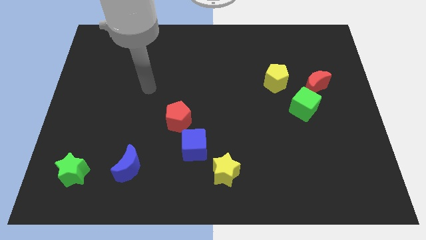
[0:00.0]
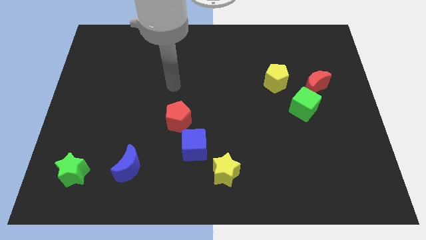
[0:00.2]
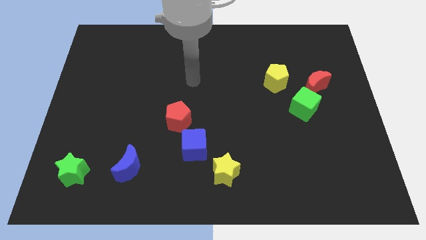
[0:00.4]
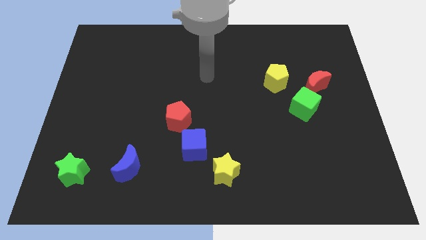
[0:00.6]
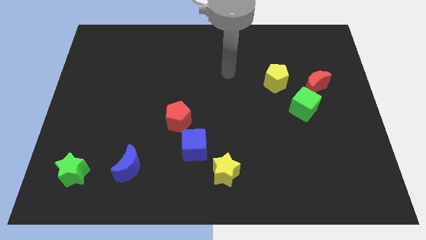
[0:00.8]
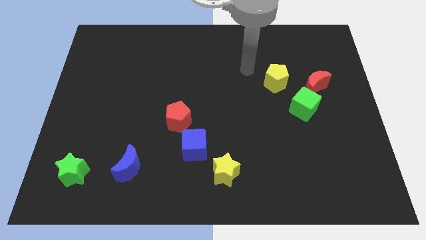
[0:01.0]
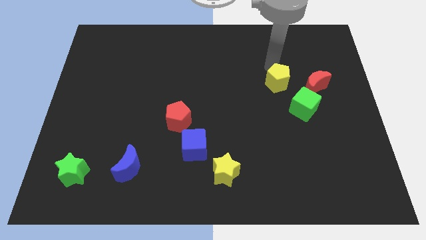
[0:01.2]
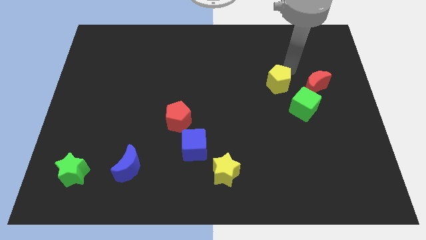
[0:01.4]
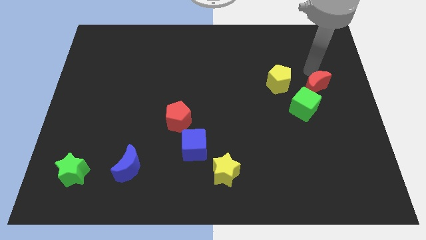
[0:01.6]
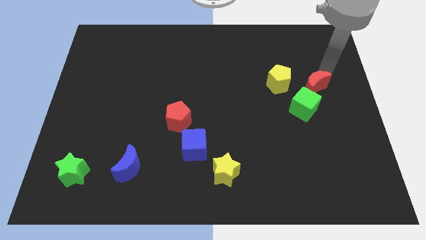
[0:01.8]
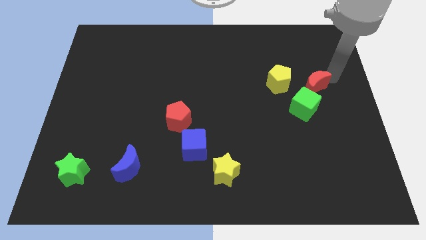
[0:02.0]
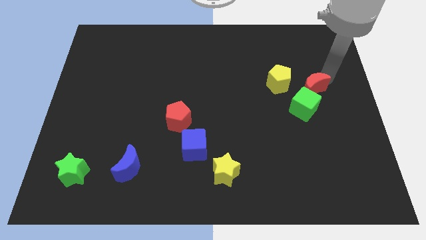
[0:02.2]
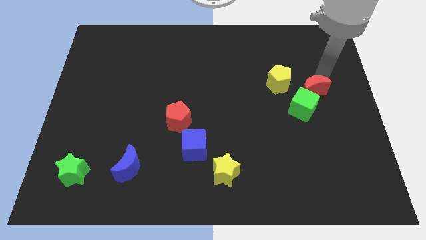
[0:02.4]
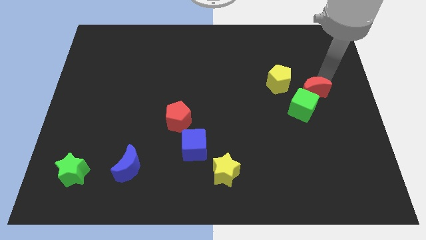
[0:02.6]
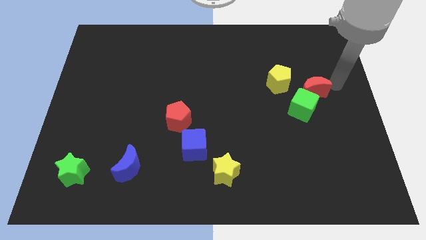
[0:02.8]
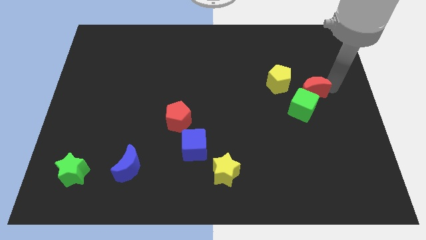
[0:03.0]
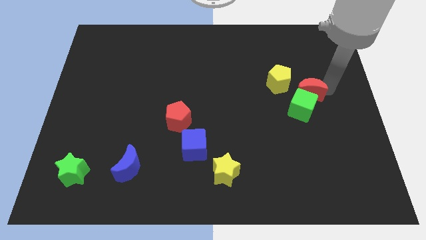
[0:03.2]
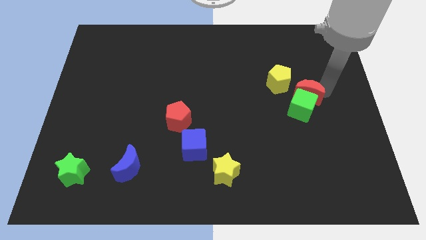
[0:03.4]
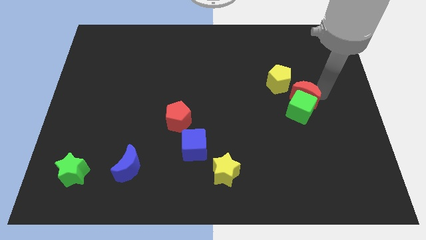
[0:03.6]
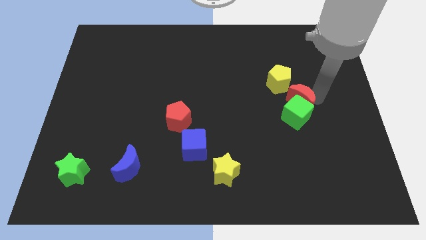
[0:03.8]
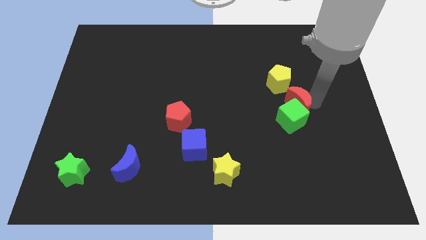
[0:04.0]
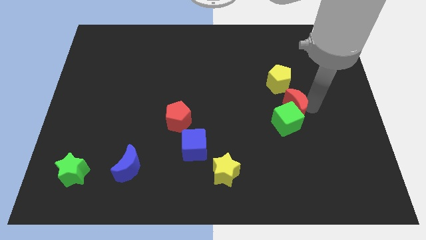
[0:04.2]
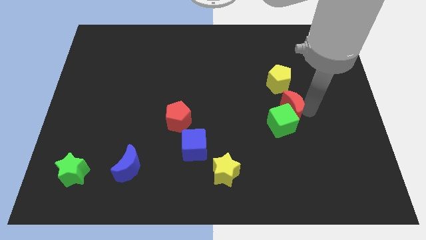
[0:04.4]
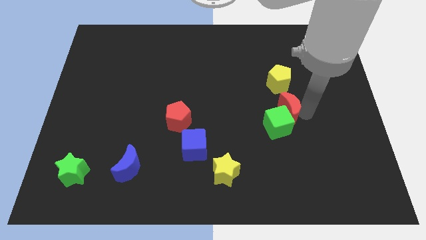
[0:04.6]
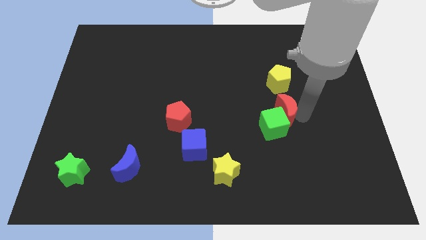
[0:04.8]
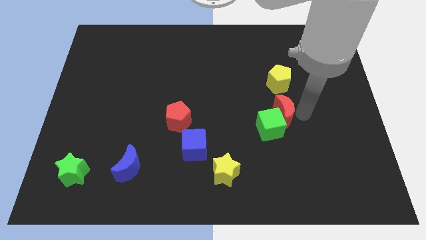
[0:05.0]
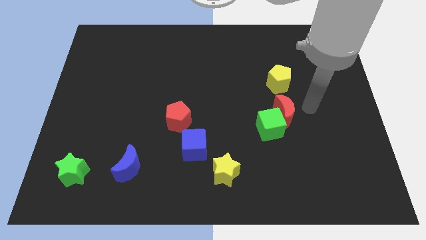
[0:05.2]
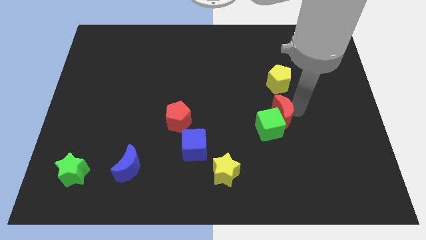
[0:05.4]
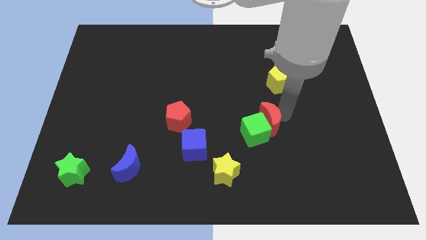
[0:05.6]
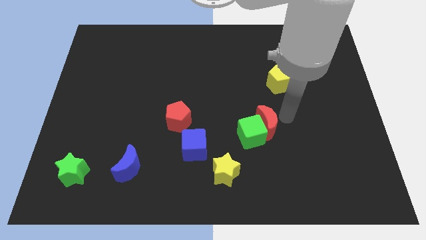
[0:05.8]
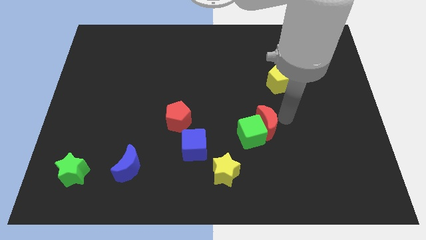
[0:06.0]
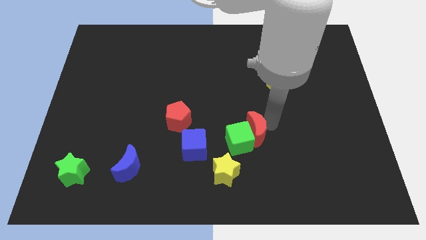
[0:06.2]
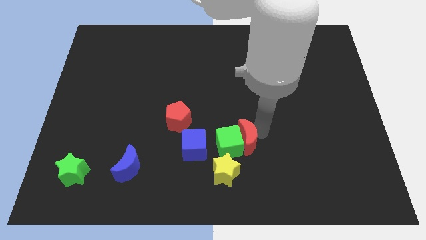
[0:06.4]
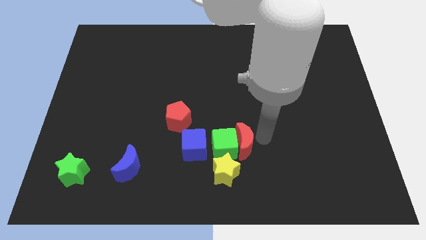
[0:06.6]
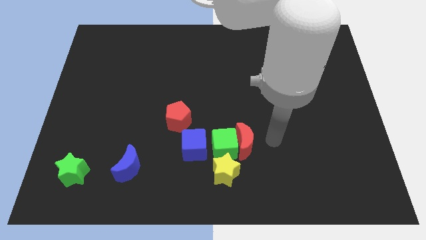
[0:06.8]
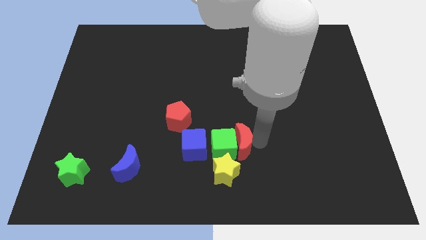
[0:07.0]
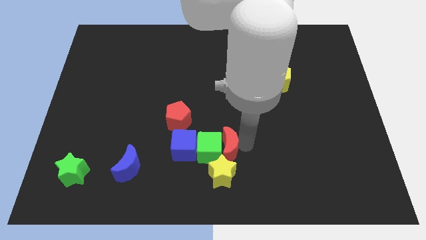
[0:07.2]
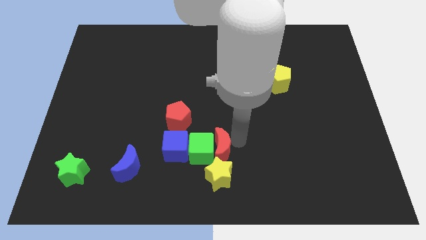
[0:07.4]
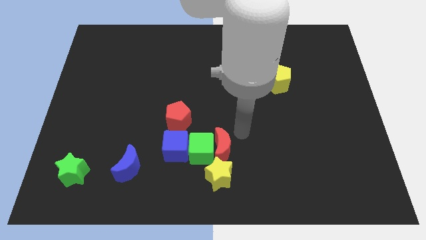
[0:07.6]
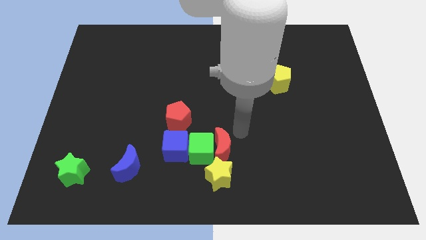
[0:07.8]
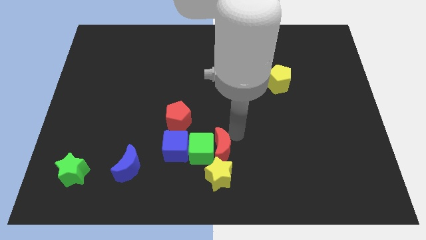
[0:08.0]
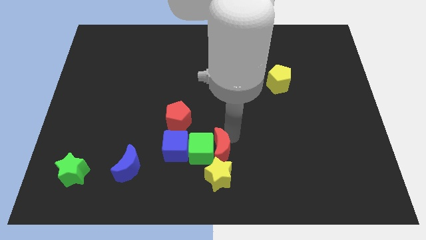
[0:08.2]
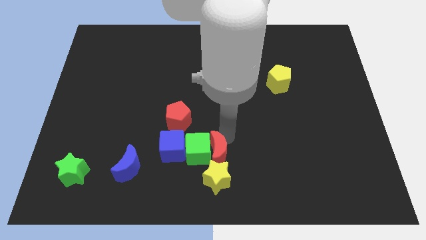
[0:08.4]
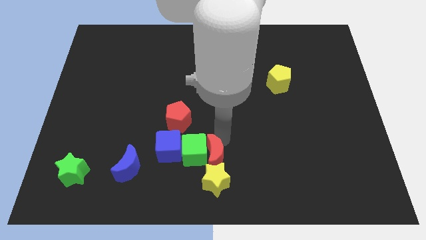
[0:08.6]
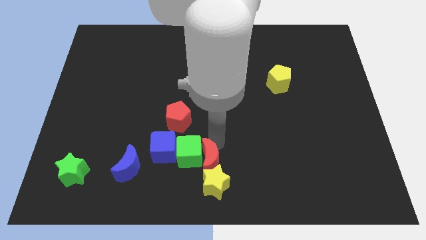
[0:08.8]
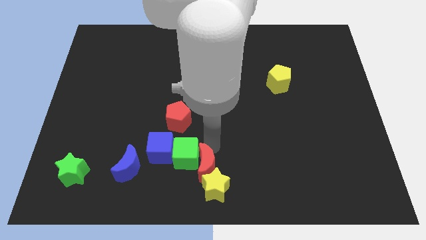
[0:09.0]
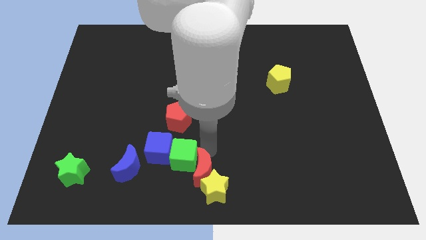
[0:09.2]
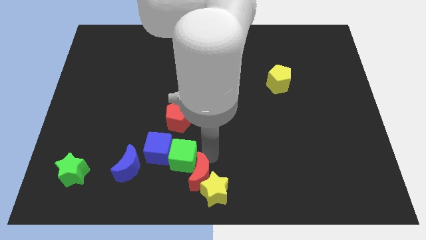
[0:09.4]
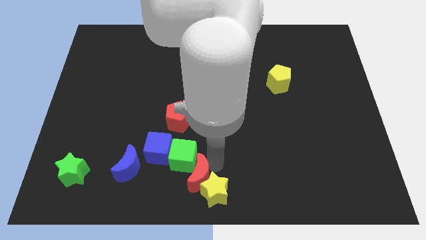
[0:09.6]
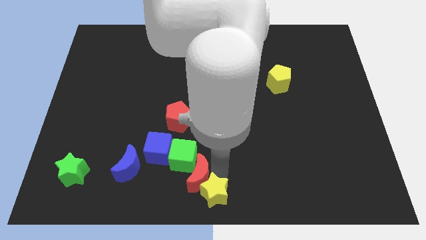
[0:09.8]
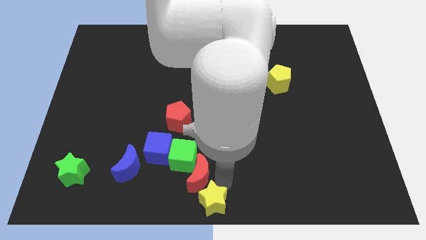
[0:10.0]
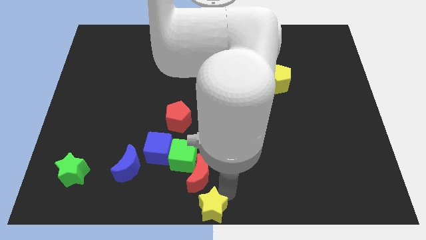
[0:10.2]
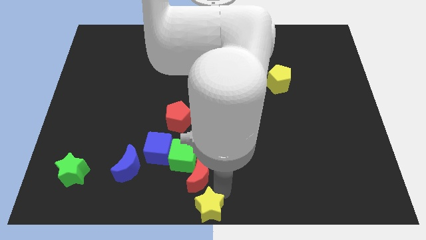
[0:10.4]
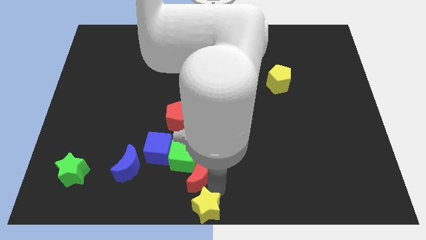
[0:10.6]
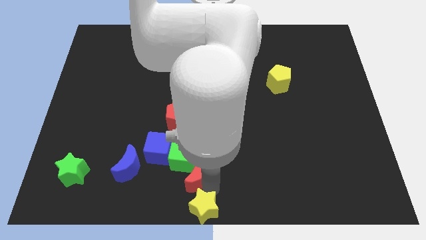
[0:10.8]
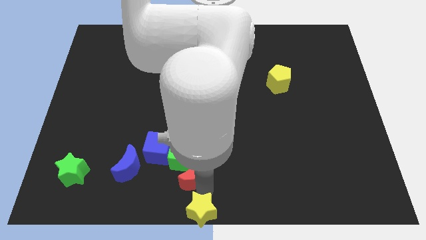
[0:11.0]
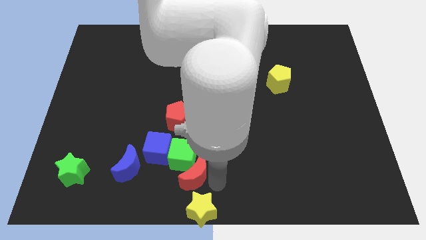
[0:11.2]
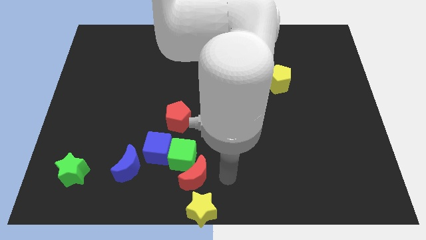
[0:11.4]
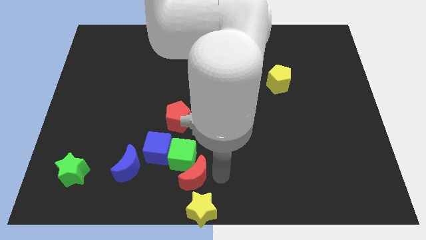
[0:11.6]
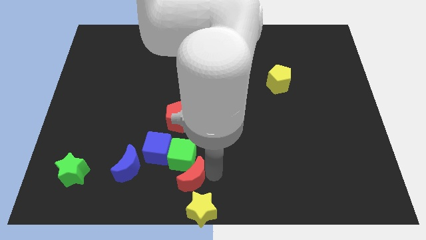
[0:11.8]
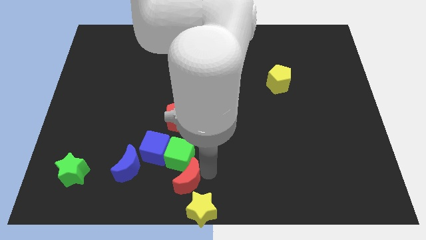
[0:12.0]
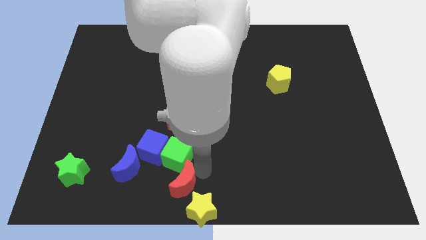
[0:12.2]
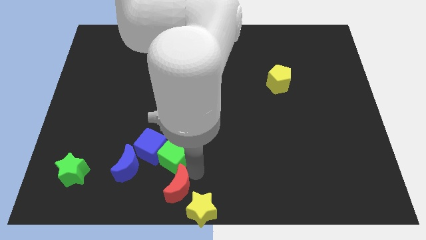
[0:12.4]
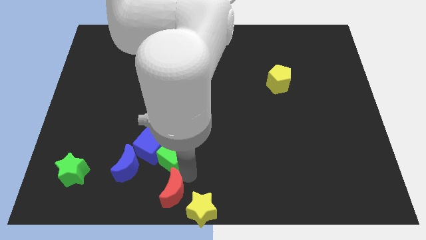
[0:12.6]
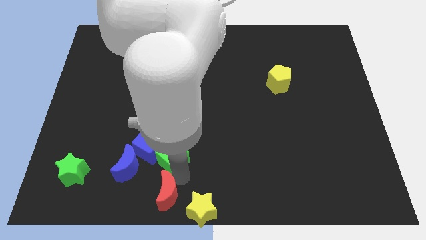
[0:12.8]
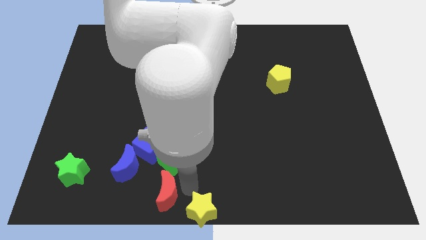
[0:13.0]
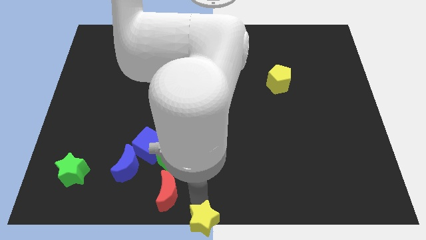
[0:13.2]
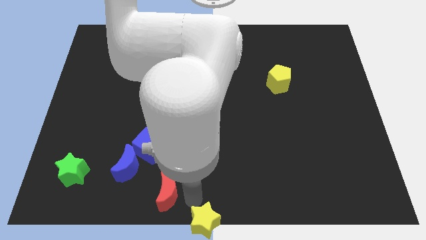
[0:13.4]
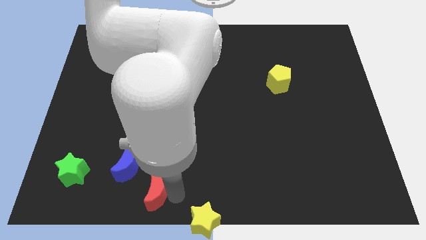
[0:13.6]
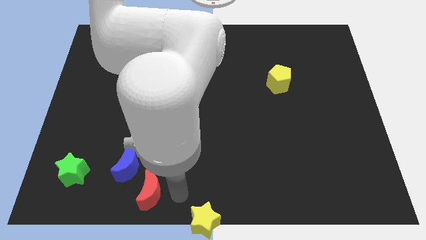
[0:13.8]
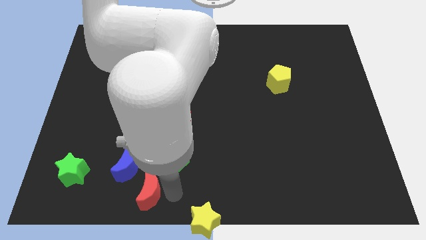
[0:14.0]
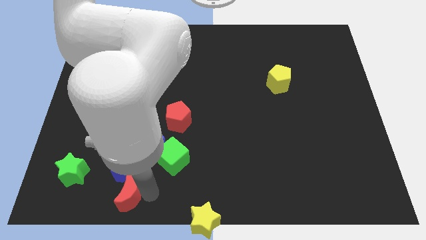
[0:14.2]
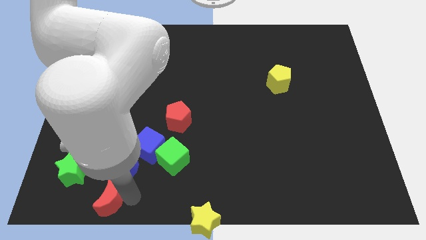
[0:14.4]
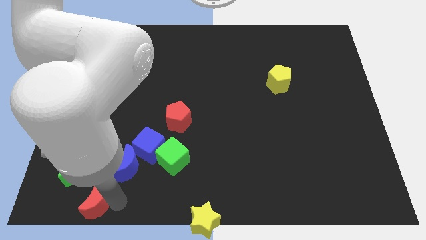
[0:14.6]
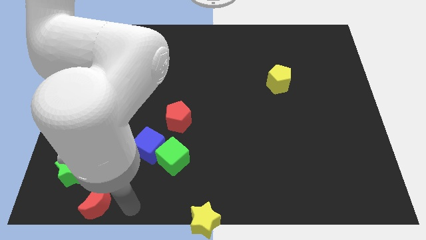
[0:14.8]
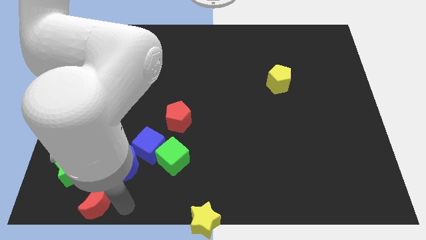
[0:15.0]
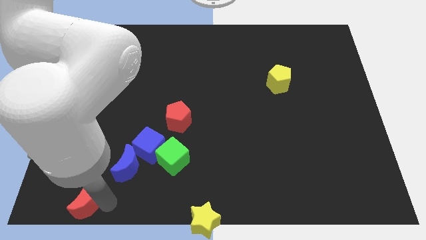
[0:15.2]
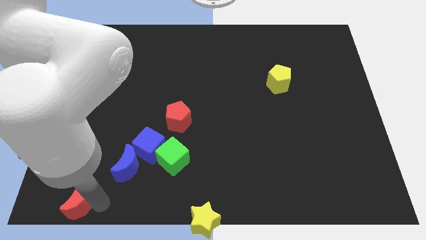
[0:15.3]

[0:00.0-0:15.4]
move the red moon to the bottom left corner
